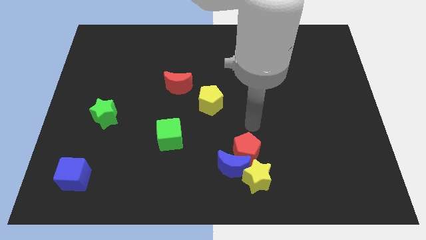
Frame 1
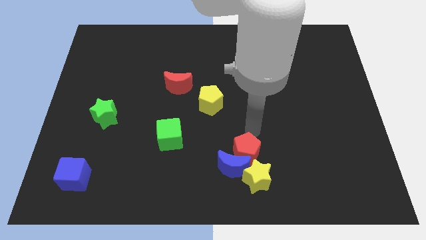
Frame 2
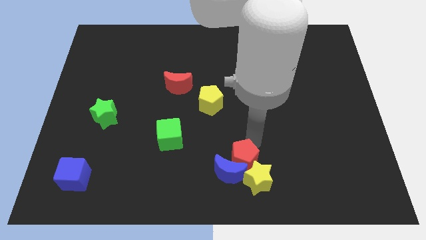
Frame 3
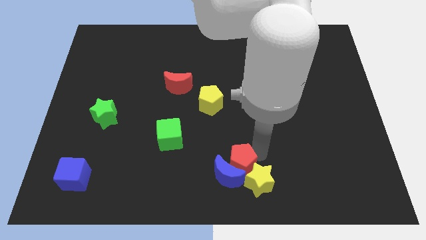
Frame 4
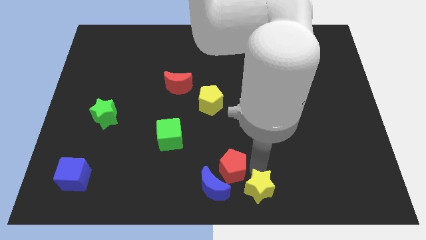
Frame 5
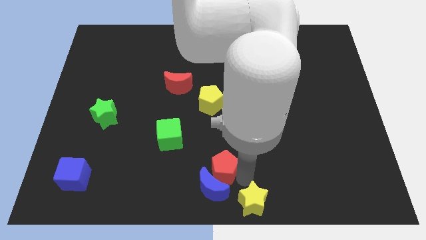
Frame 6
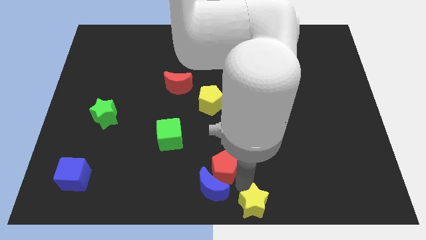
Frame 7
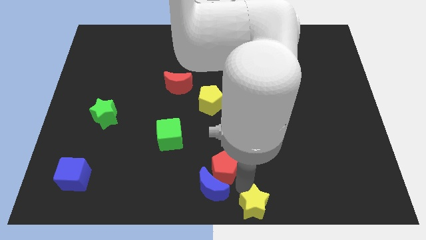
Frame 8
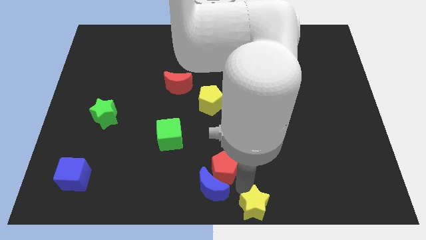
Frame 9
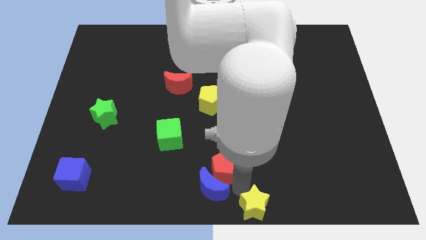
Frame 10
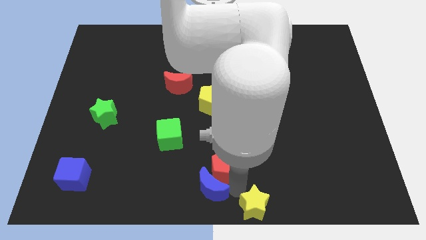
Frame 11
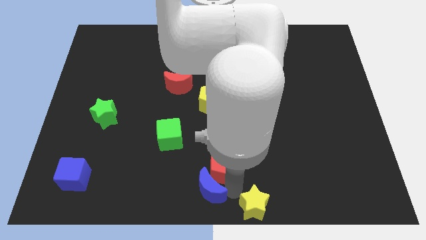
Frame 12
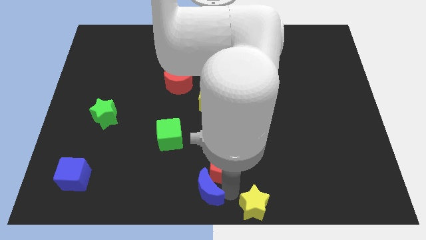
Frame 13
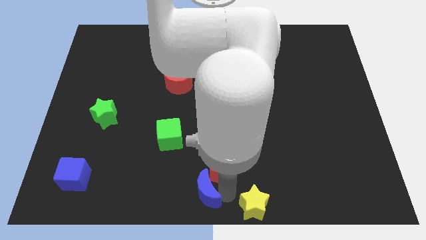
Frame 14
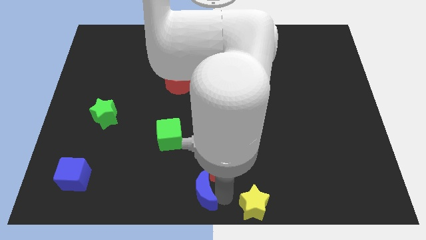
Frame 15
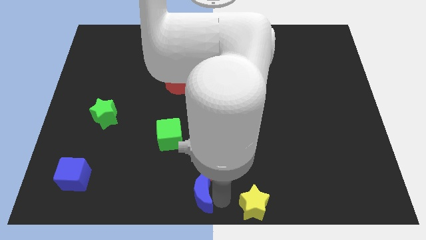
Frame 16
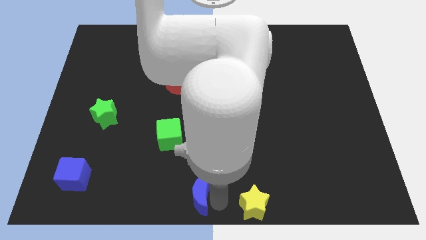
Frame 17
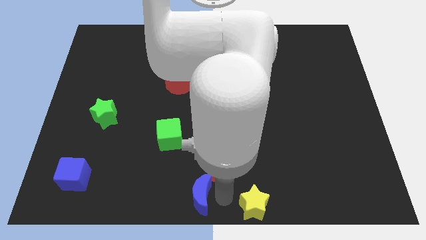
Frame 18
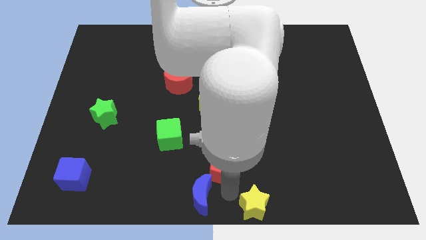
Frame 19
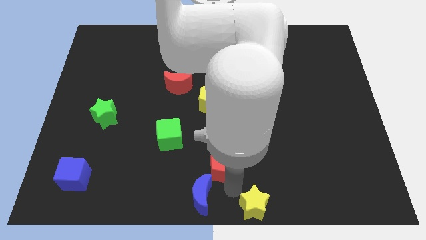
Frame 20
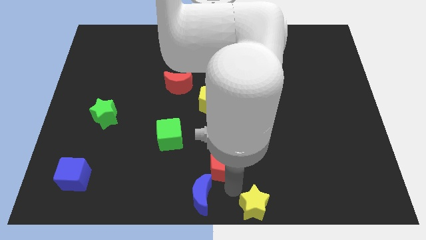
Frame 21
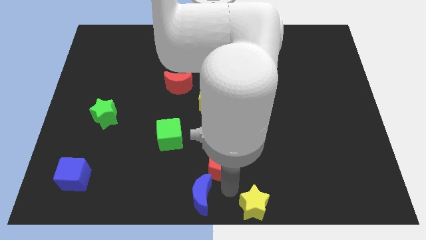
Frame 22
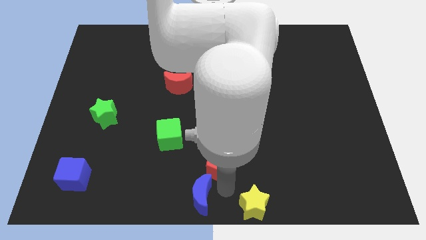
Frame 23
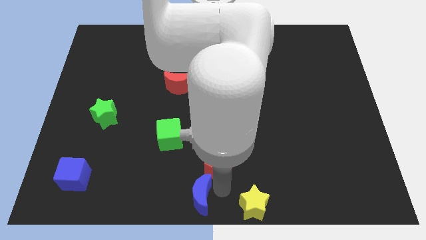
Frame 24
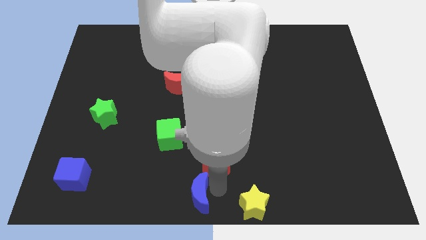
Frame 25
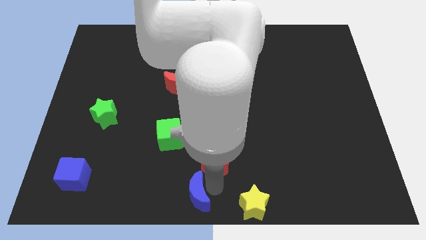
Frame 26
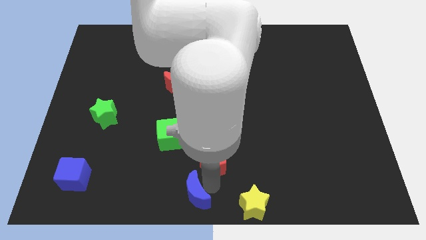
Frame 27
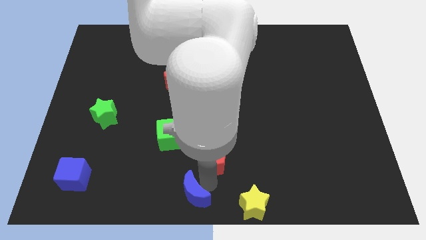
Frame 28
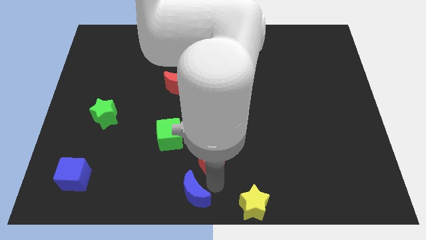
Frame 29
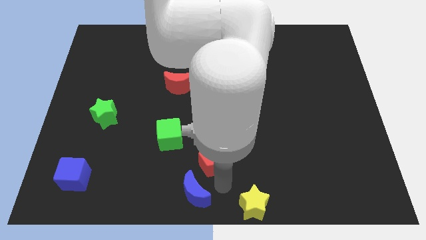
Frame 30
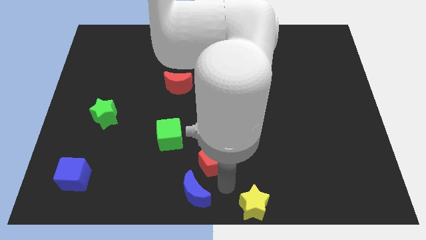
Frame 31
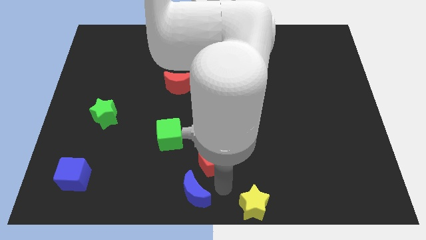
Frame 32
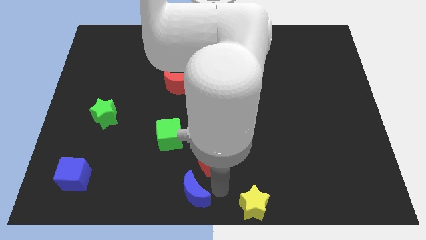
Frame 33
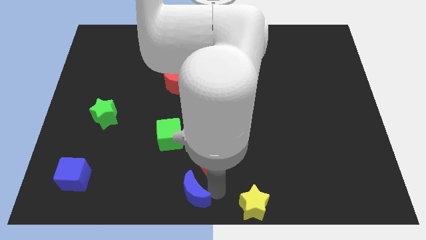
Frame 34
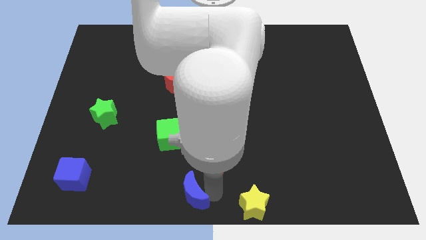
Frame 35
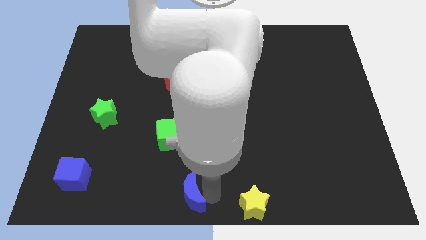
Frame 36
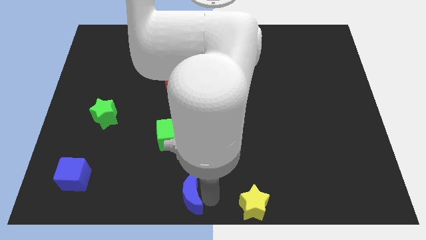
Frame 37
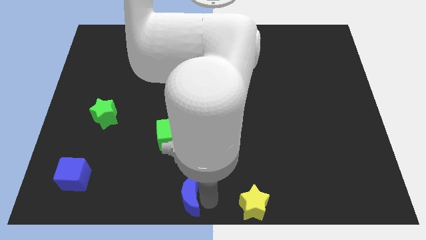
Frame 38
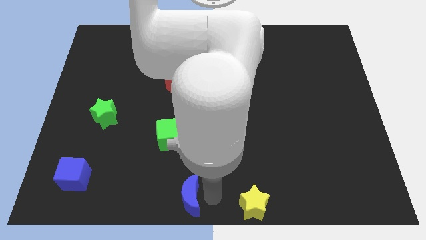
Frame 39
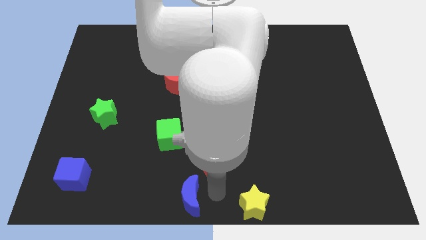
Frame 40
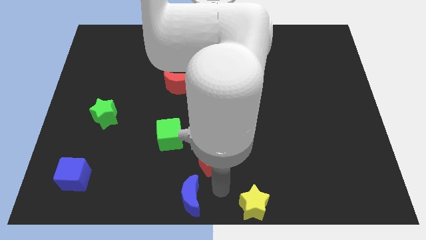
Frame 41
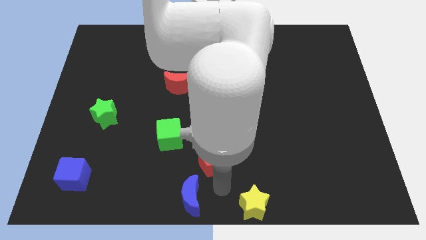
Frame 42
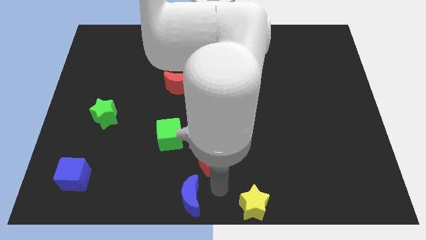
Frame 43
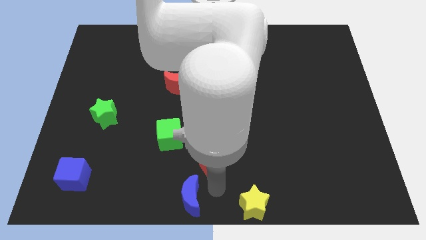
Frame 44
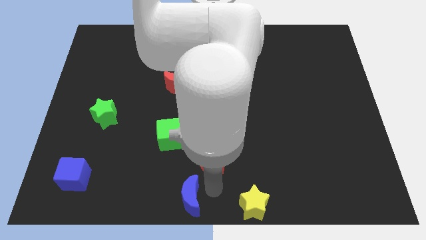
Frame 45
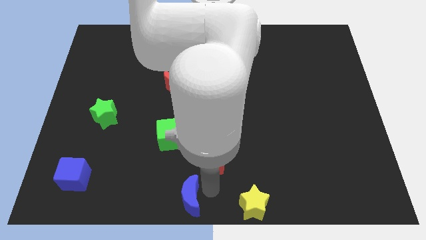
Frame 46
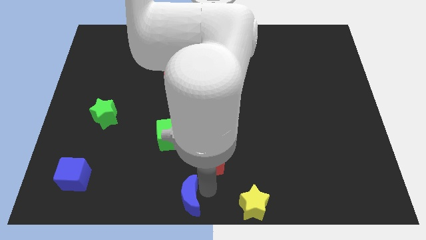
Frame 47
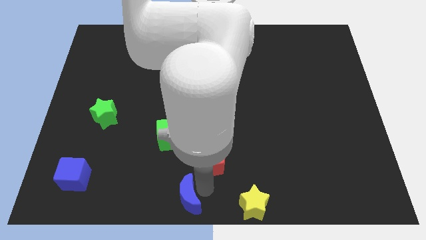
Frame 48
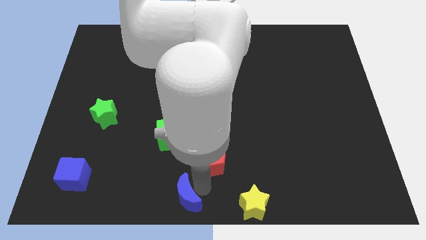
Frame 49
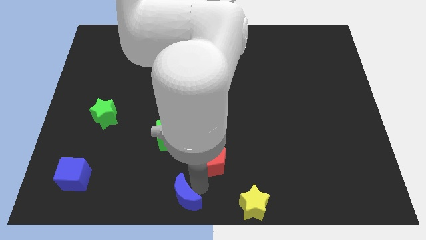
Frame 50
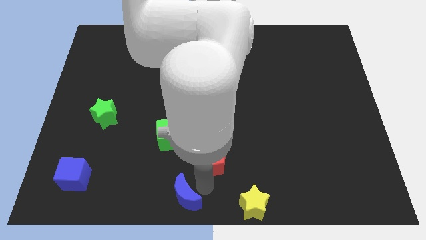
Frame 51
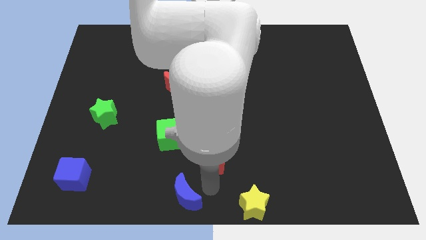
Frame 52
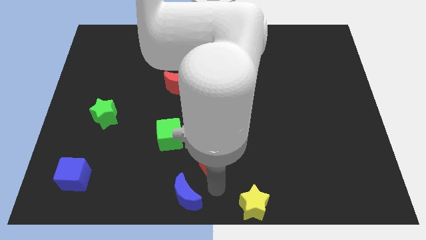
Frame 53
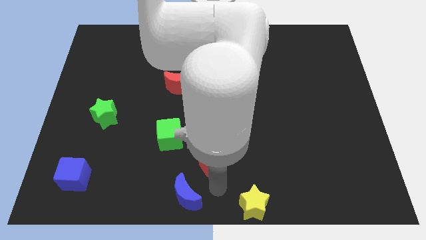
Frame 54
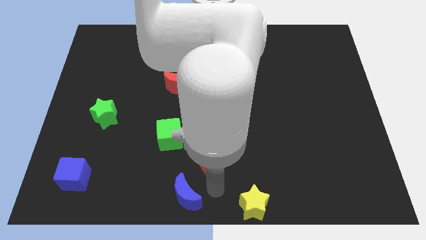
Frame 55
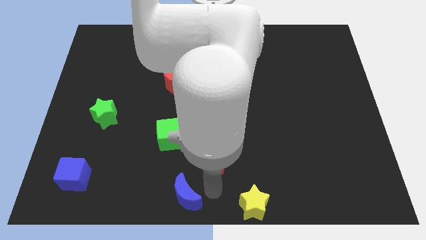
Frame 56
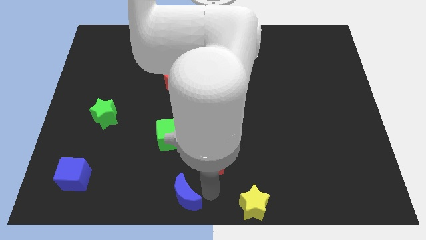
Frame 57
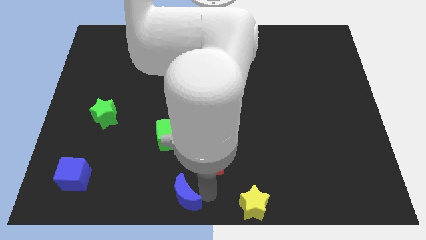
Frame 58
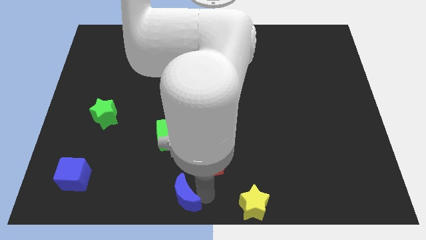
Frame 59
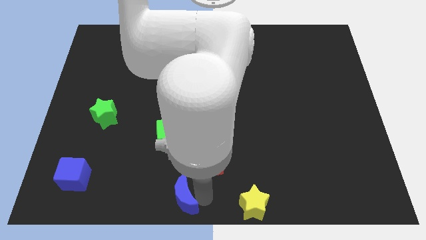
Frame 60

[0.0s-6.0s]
pull the blue moon apart from the red pentagon and yellow star

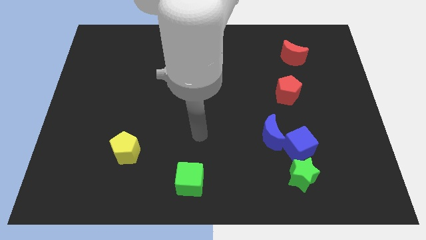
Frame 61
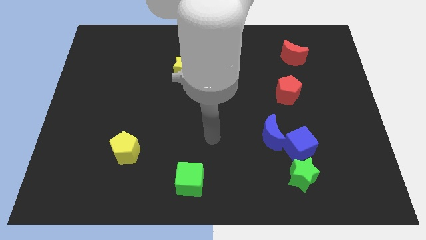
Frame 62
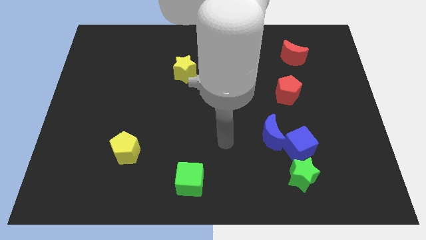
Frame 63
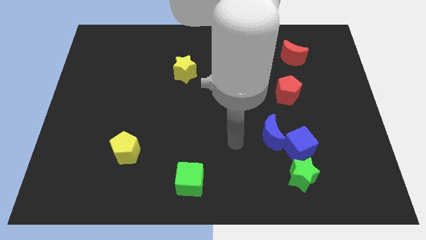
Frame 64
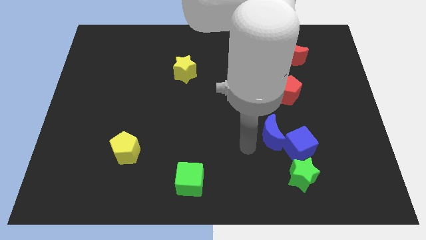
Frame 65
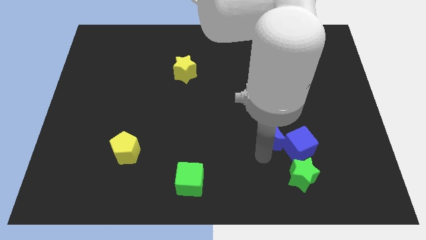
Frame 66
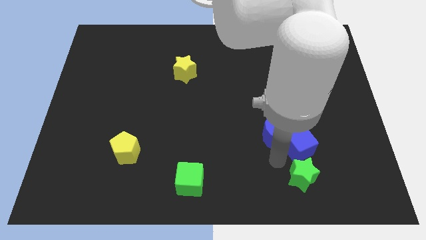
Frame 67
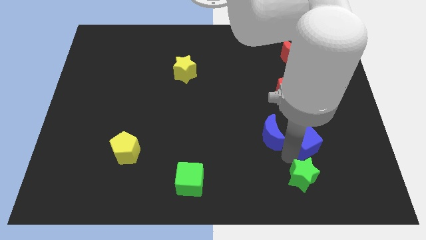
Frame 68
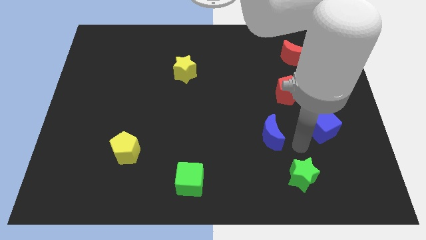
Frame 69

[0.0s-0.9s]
move the blue moon away from the blue cube

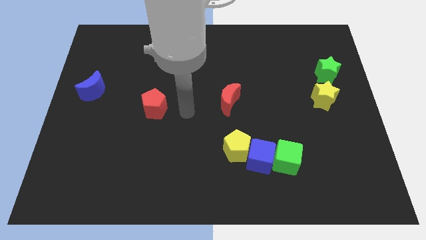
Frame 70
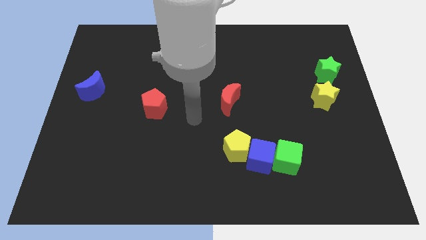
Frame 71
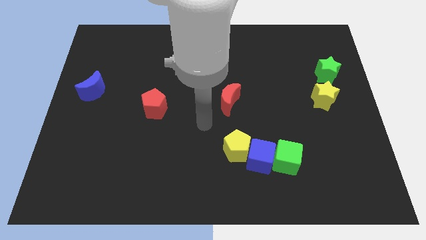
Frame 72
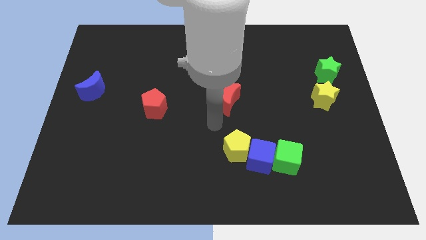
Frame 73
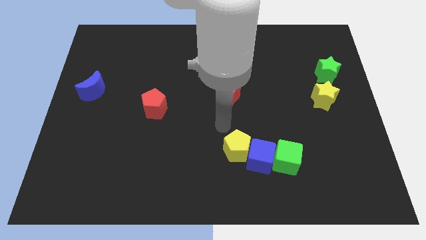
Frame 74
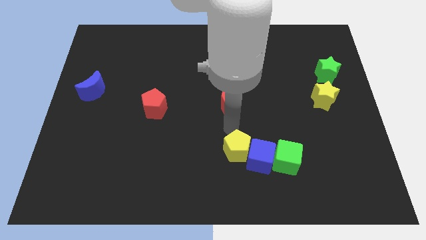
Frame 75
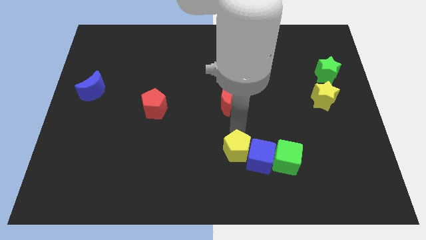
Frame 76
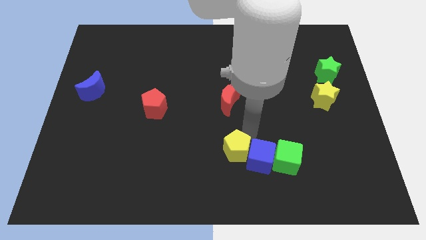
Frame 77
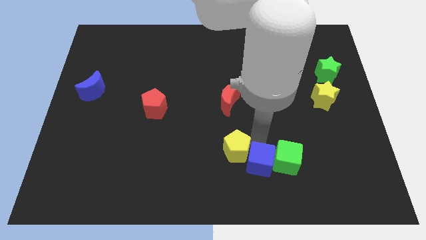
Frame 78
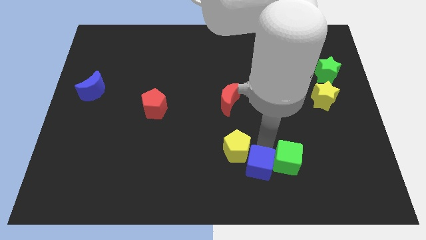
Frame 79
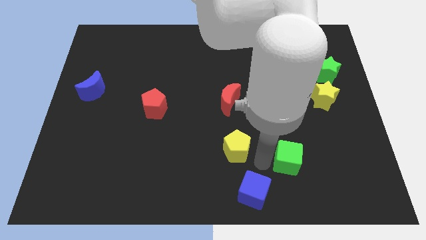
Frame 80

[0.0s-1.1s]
pull the yellow pentagon apart from the blue cube

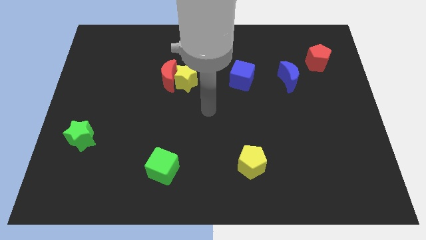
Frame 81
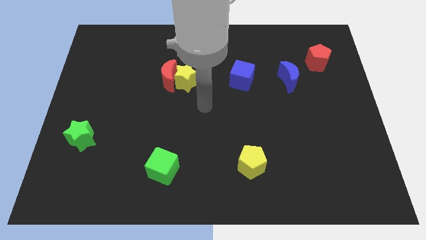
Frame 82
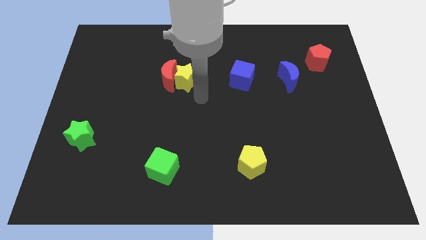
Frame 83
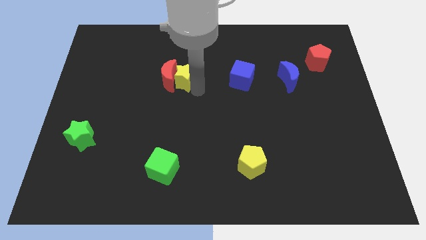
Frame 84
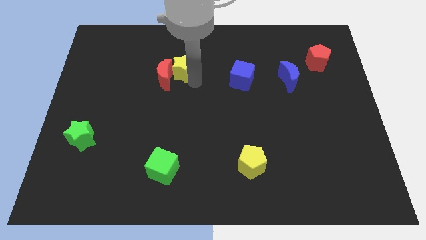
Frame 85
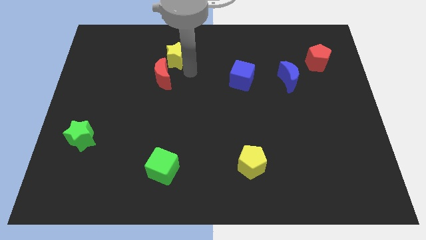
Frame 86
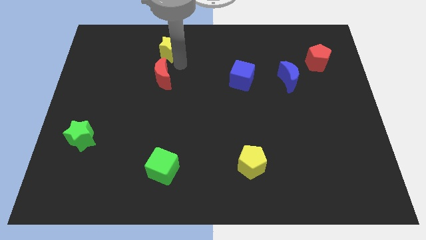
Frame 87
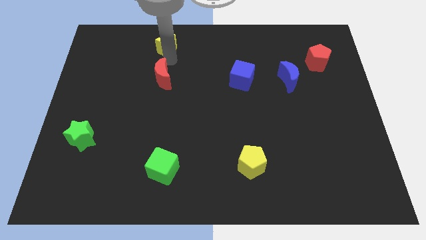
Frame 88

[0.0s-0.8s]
separate the red moon from the yellow star

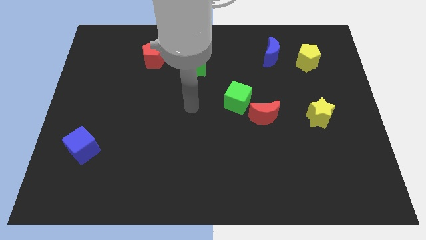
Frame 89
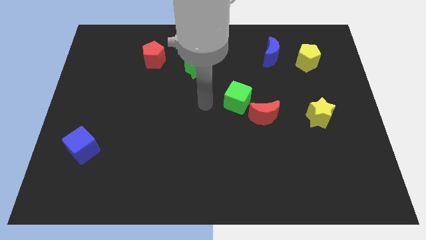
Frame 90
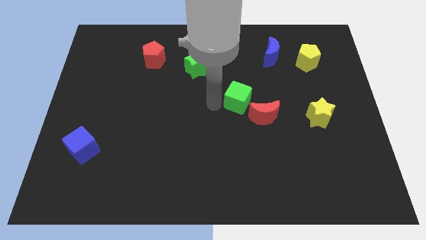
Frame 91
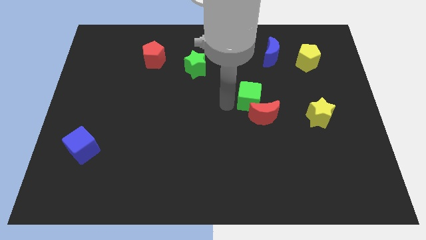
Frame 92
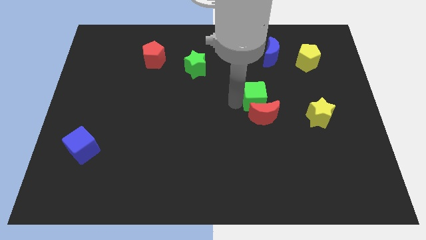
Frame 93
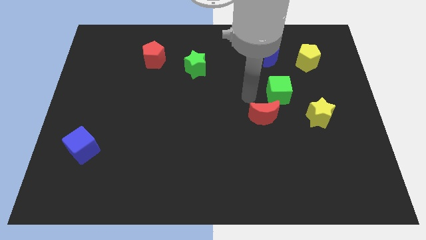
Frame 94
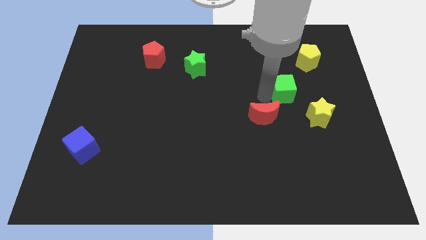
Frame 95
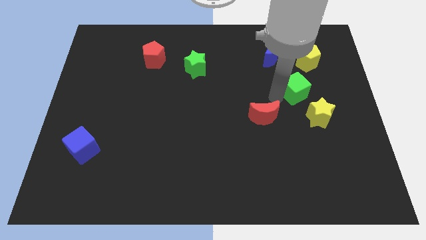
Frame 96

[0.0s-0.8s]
move the red moon away from the green cube
